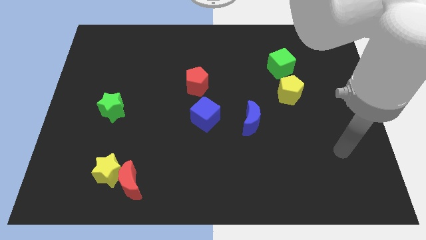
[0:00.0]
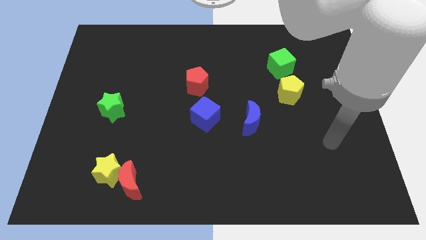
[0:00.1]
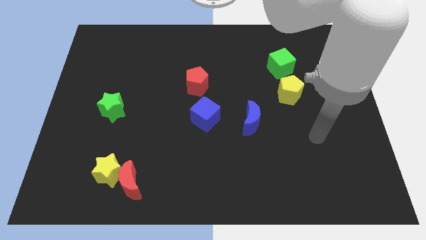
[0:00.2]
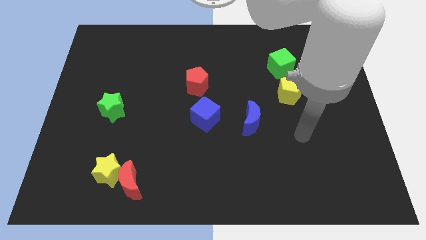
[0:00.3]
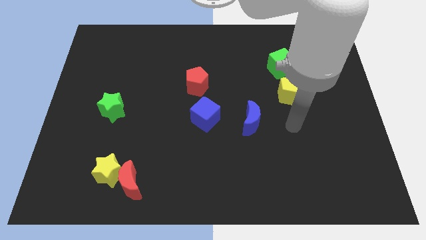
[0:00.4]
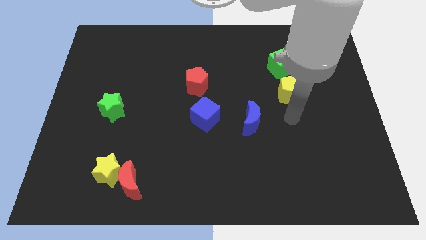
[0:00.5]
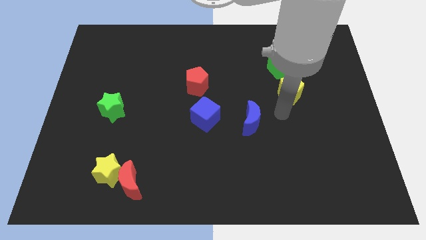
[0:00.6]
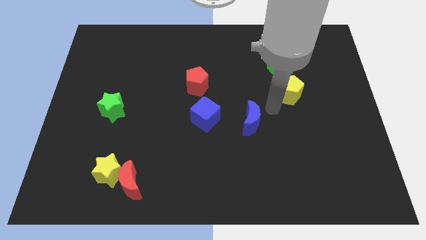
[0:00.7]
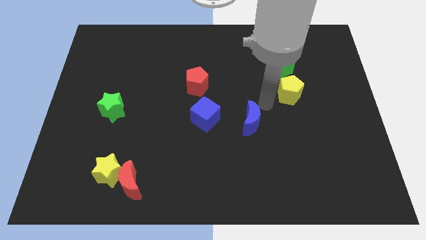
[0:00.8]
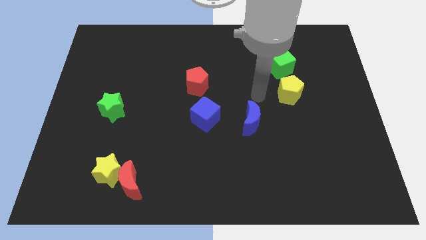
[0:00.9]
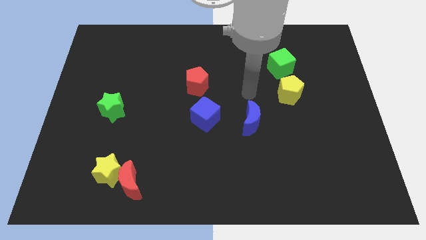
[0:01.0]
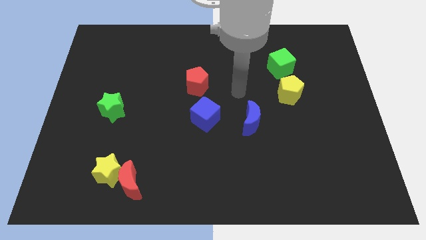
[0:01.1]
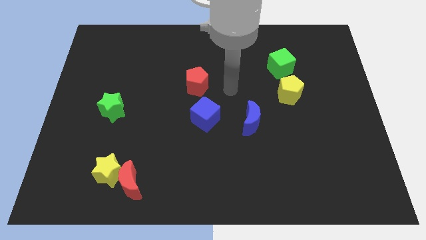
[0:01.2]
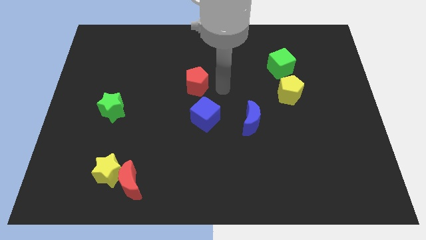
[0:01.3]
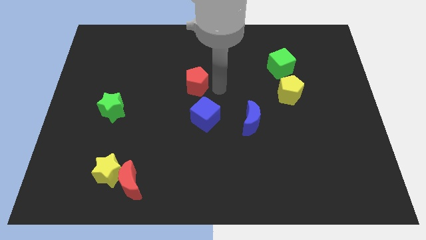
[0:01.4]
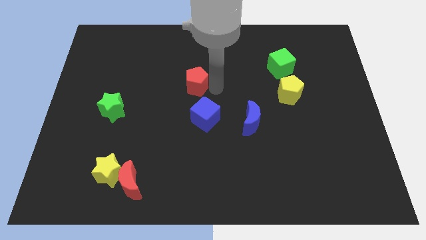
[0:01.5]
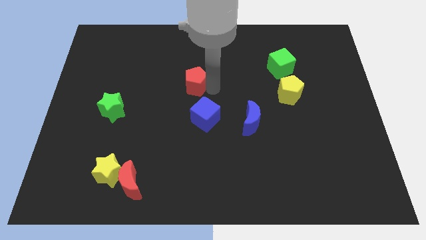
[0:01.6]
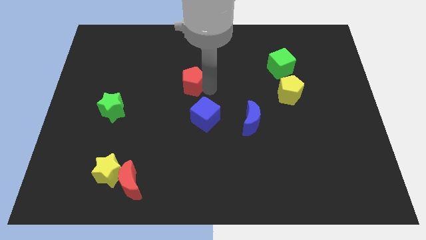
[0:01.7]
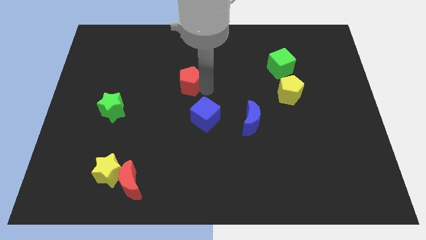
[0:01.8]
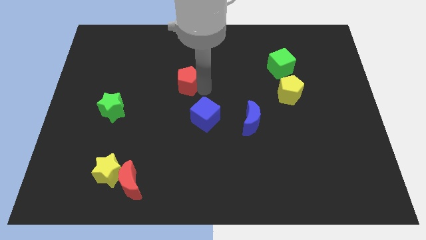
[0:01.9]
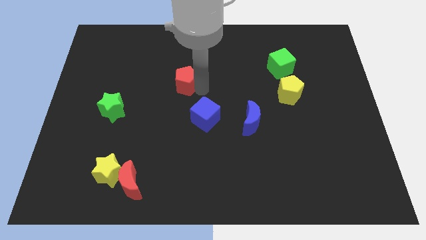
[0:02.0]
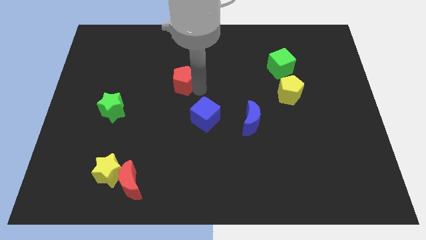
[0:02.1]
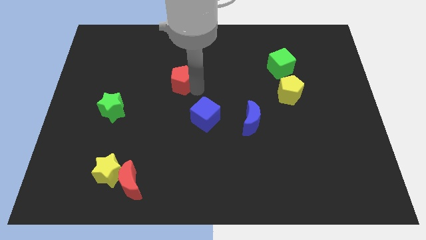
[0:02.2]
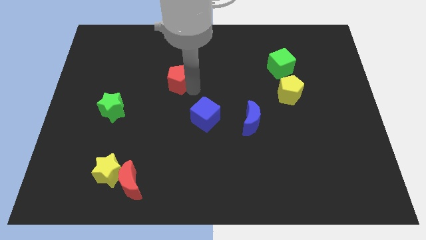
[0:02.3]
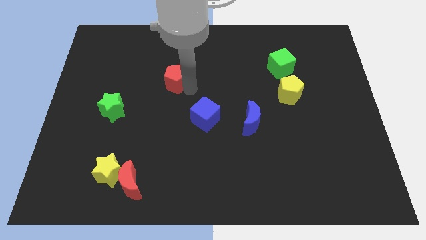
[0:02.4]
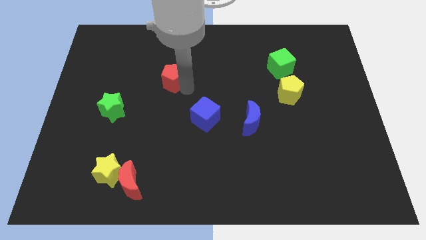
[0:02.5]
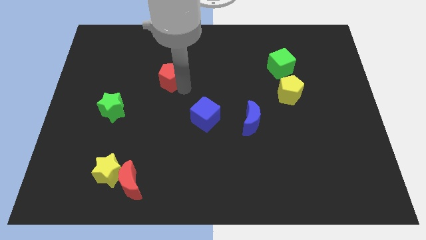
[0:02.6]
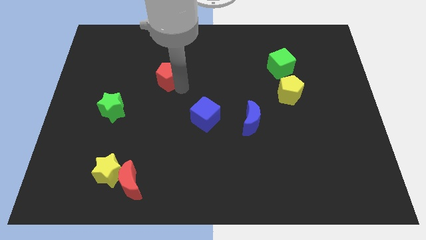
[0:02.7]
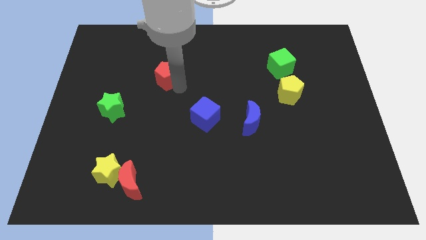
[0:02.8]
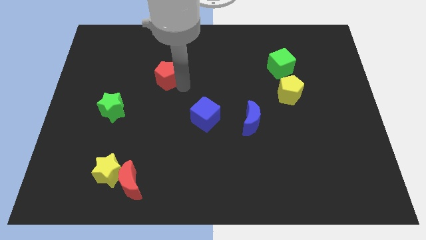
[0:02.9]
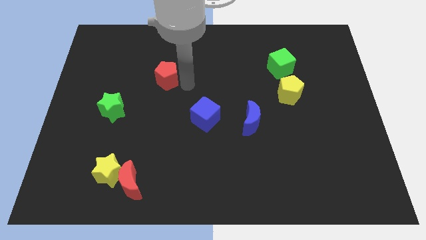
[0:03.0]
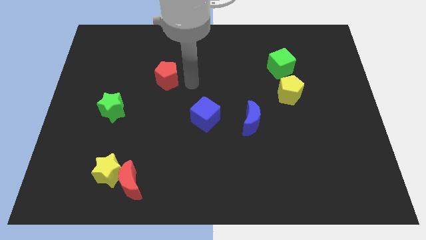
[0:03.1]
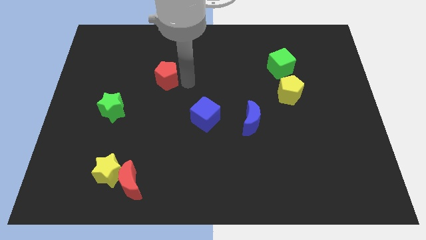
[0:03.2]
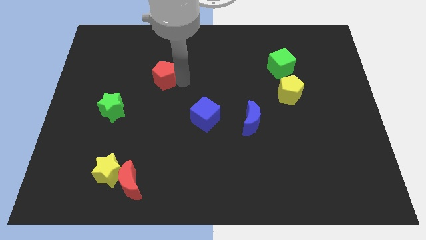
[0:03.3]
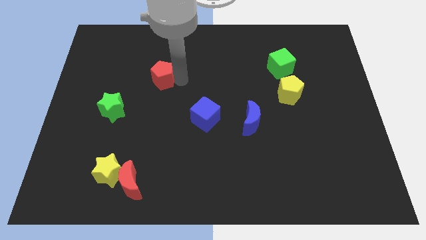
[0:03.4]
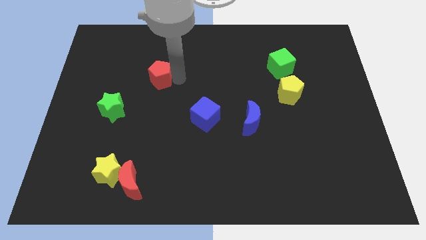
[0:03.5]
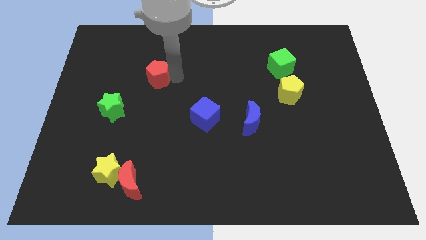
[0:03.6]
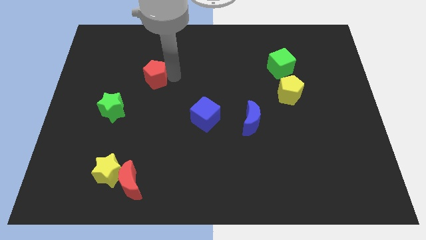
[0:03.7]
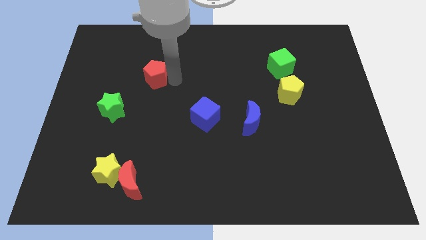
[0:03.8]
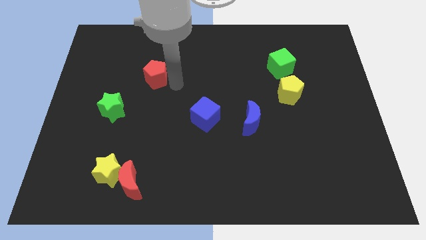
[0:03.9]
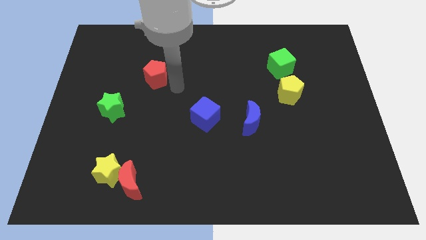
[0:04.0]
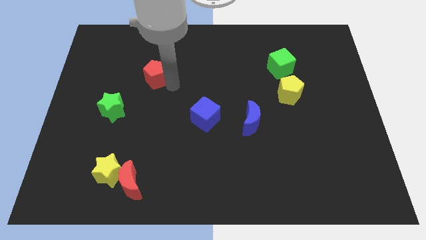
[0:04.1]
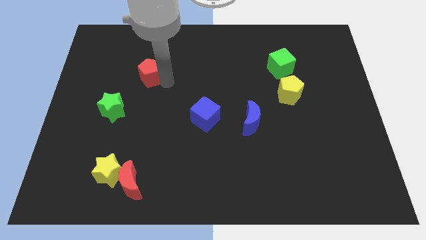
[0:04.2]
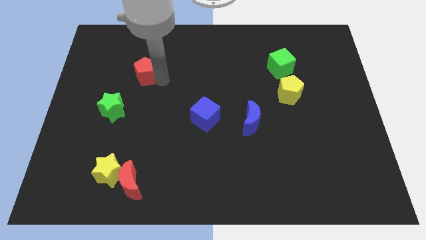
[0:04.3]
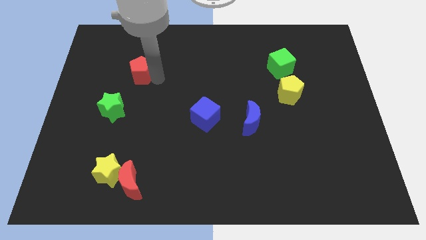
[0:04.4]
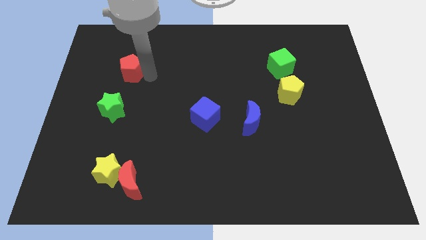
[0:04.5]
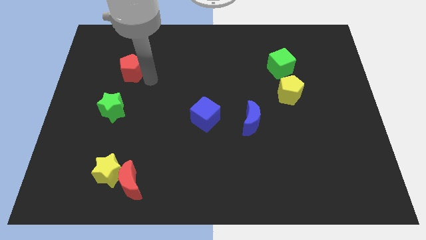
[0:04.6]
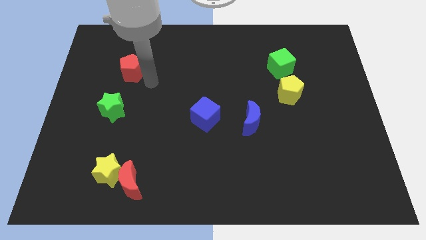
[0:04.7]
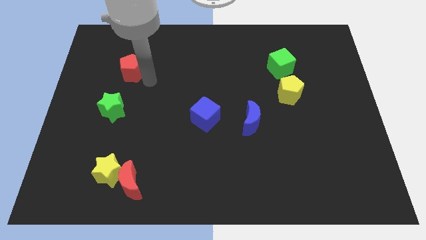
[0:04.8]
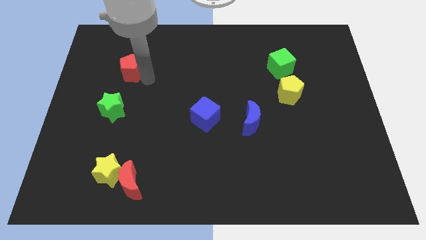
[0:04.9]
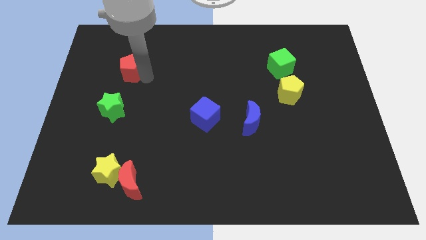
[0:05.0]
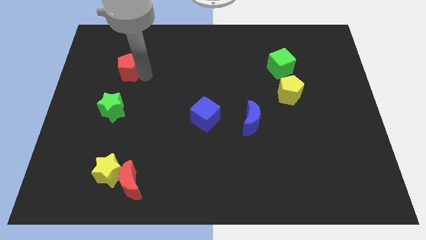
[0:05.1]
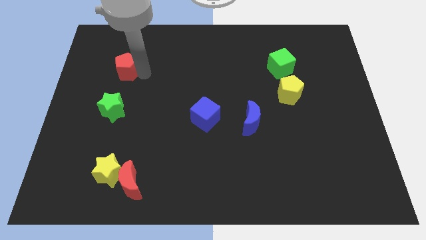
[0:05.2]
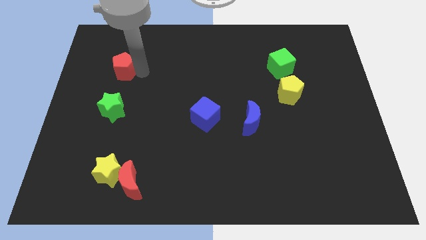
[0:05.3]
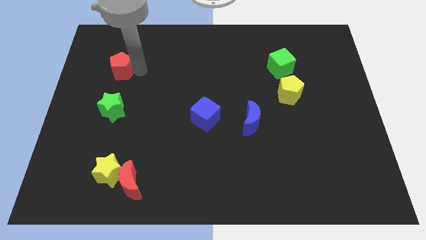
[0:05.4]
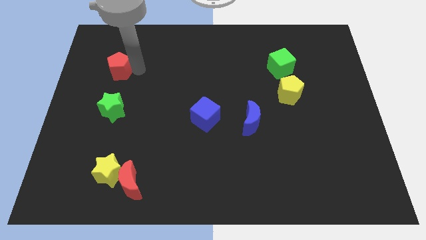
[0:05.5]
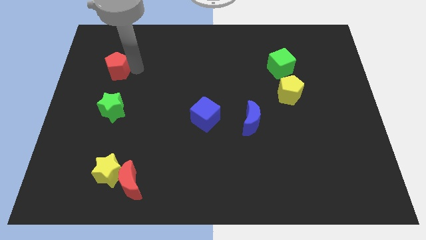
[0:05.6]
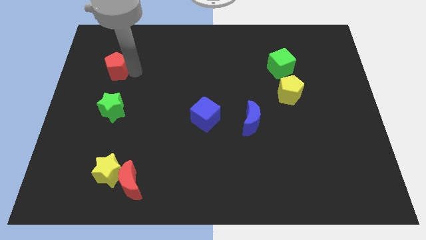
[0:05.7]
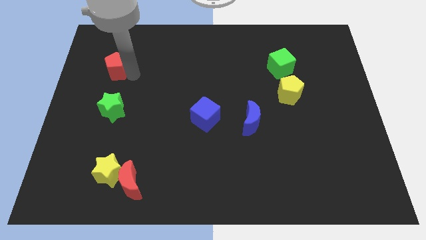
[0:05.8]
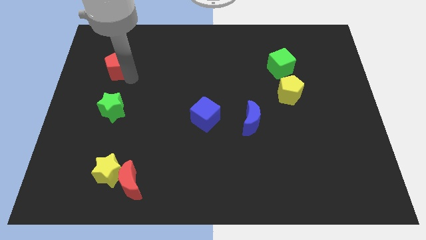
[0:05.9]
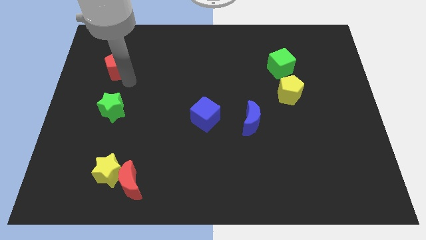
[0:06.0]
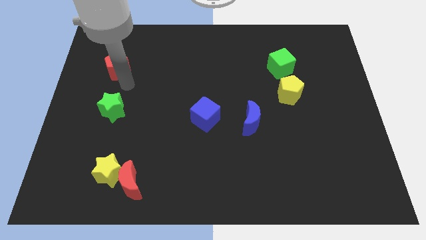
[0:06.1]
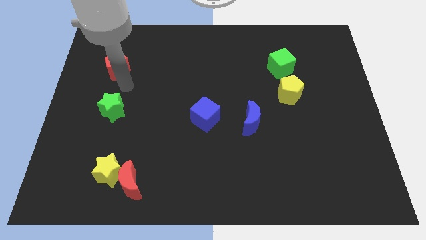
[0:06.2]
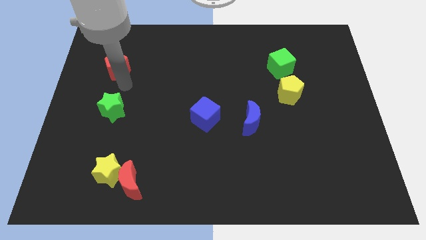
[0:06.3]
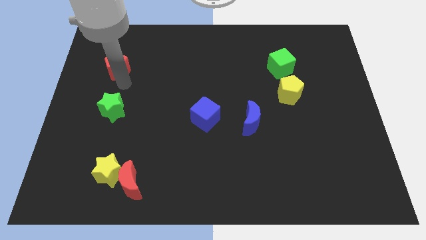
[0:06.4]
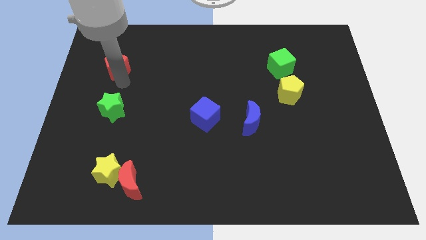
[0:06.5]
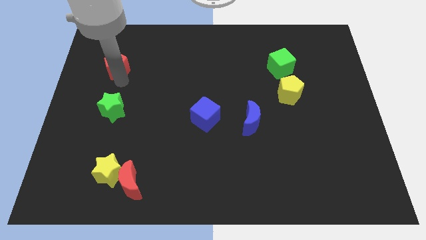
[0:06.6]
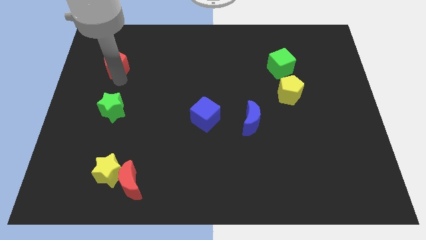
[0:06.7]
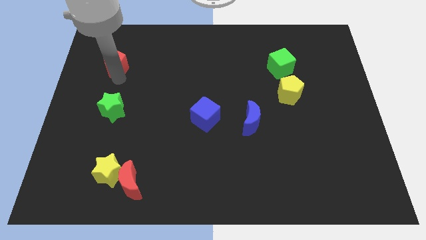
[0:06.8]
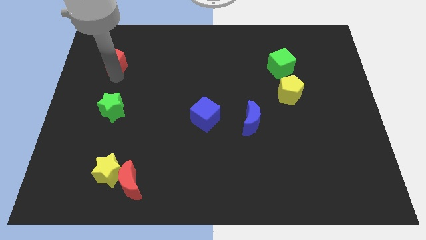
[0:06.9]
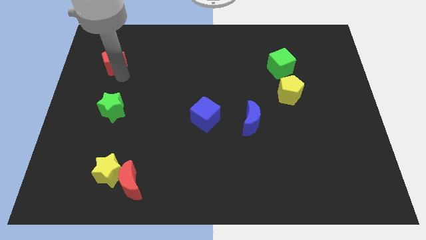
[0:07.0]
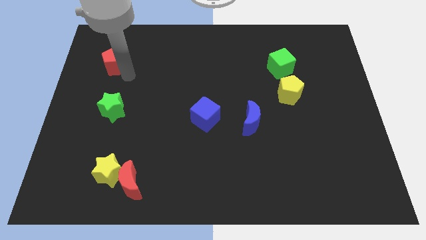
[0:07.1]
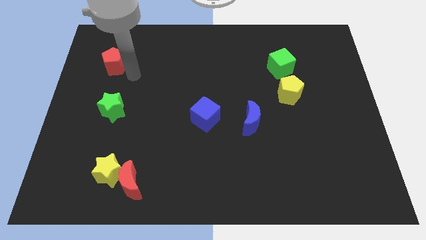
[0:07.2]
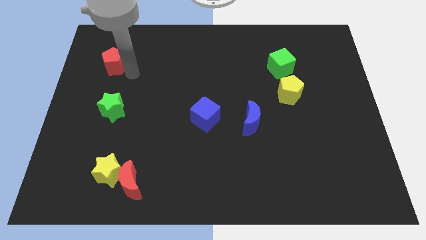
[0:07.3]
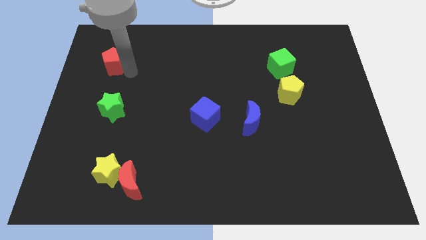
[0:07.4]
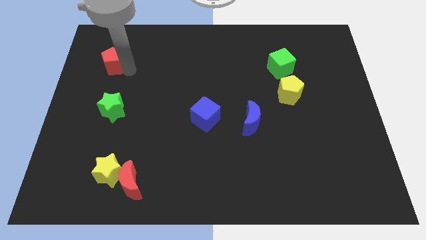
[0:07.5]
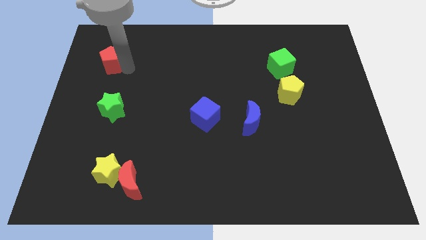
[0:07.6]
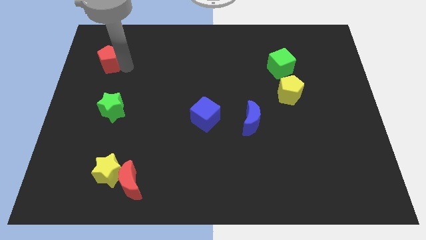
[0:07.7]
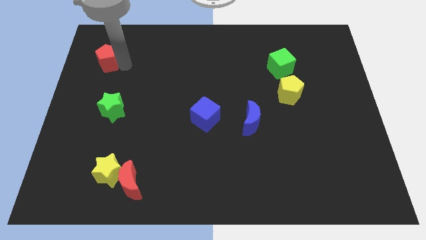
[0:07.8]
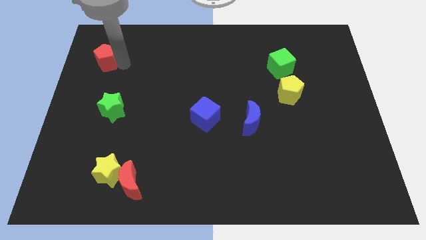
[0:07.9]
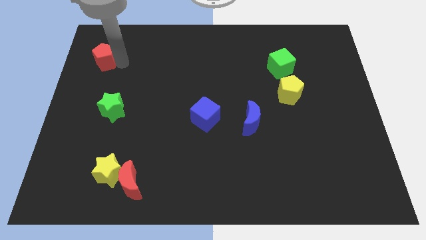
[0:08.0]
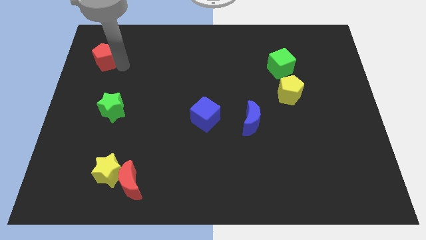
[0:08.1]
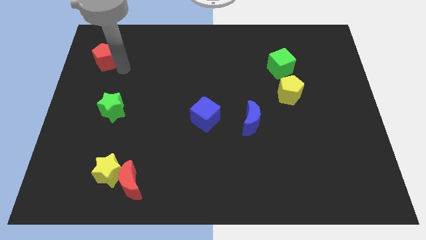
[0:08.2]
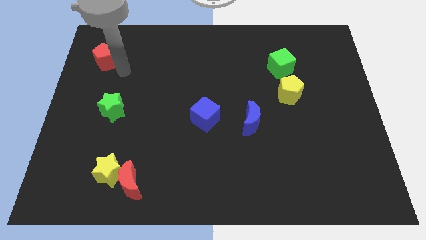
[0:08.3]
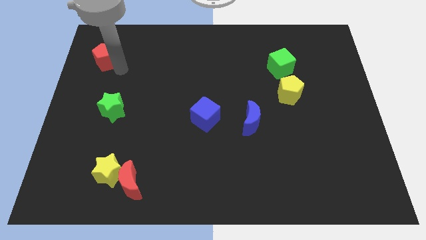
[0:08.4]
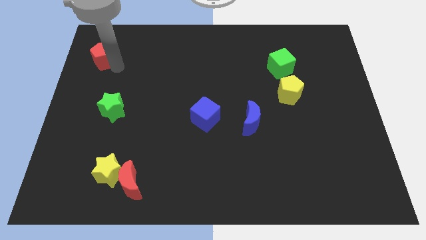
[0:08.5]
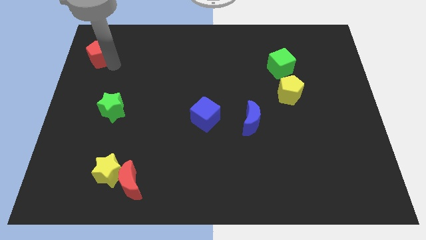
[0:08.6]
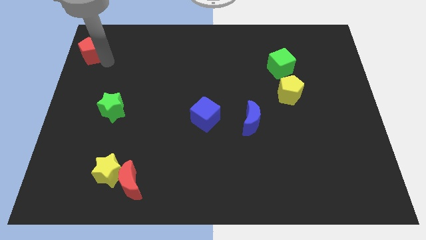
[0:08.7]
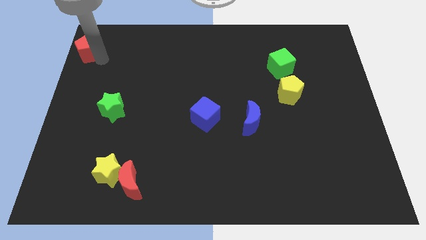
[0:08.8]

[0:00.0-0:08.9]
push the red pentagon to the top left of the board
